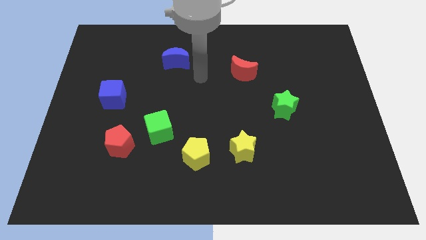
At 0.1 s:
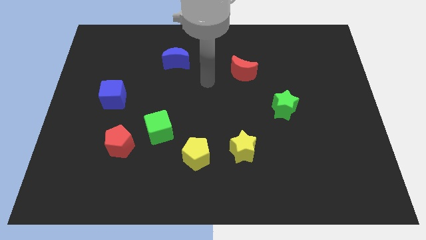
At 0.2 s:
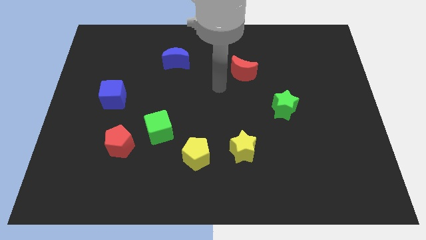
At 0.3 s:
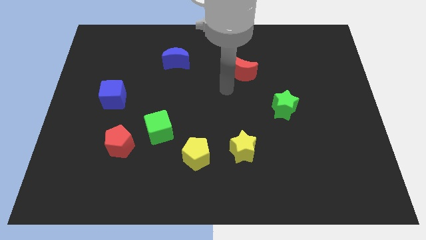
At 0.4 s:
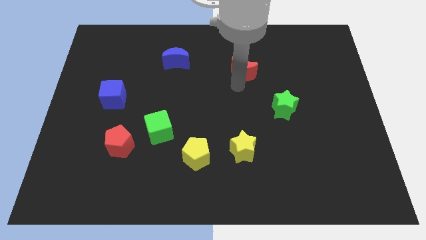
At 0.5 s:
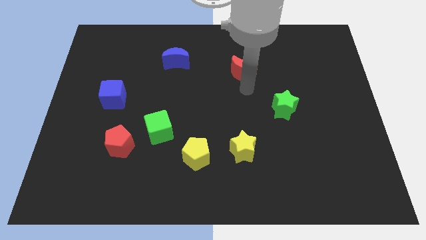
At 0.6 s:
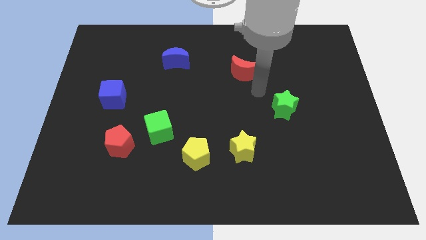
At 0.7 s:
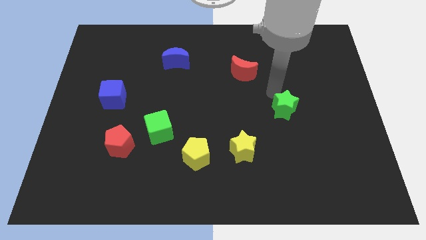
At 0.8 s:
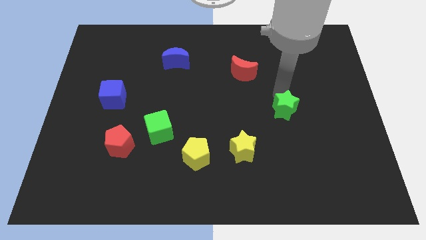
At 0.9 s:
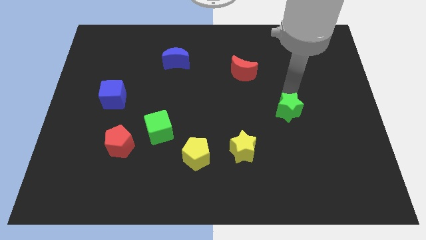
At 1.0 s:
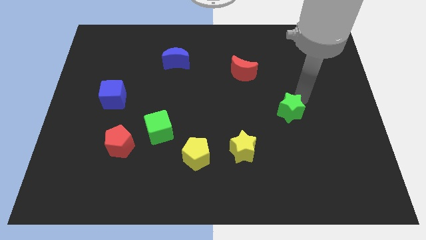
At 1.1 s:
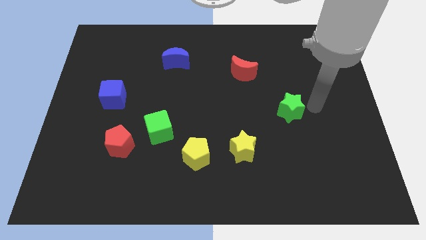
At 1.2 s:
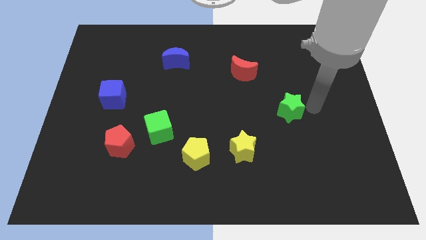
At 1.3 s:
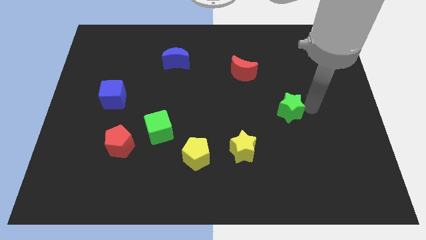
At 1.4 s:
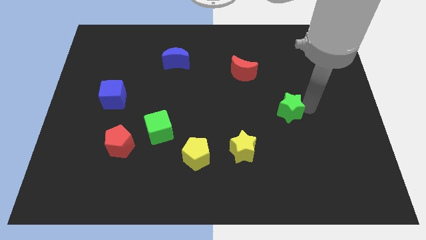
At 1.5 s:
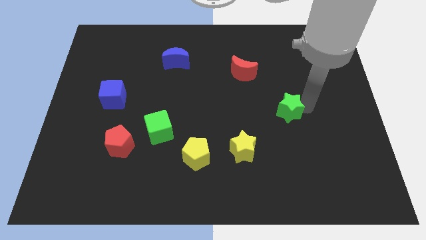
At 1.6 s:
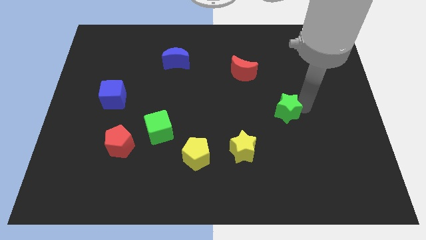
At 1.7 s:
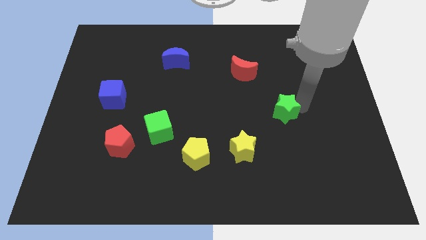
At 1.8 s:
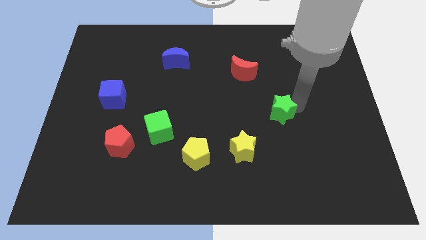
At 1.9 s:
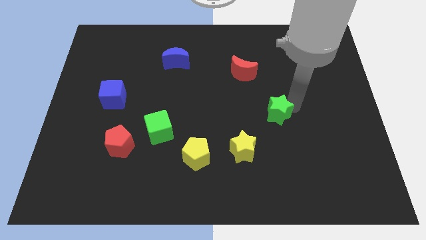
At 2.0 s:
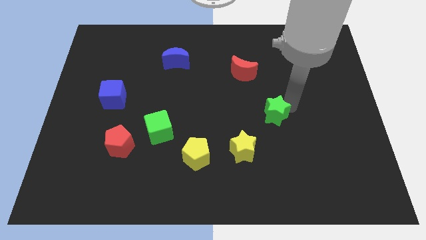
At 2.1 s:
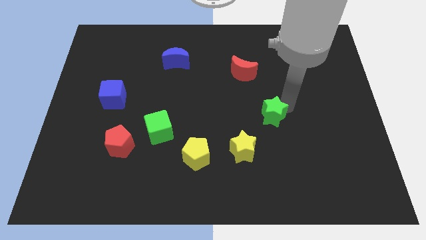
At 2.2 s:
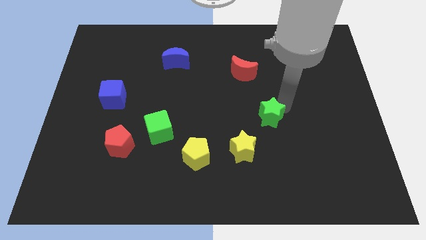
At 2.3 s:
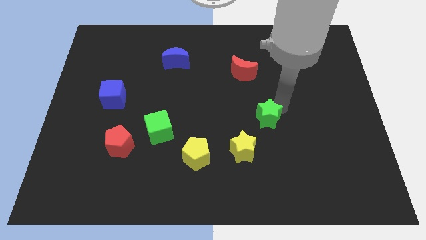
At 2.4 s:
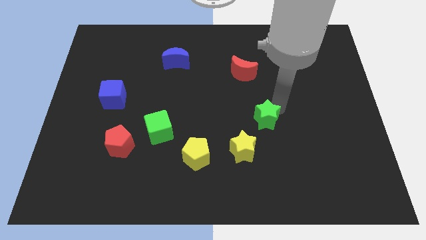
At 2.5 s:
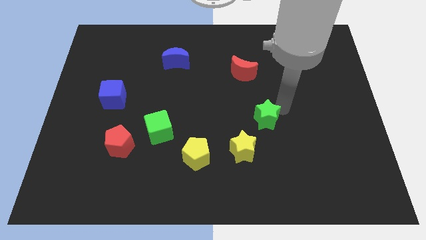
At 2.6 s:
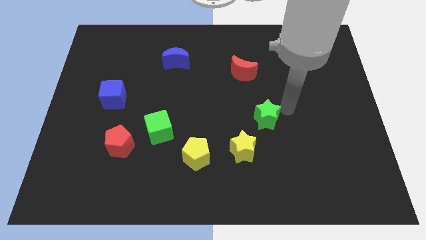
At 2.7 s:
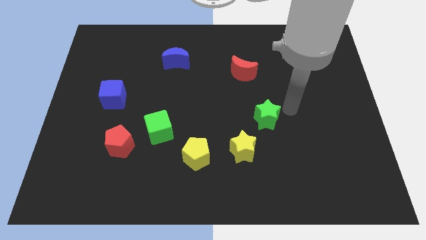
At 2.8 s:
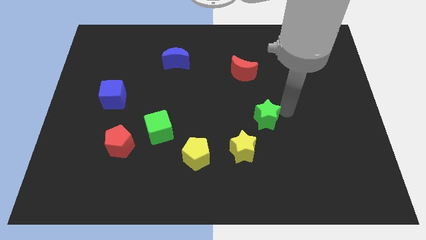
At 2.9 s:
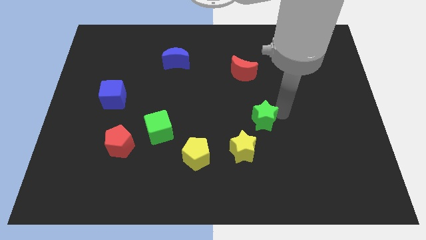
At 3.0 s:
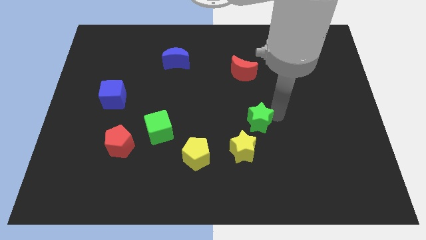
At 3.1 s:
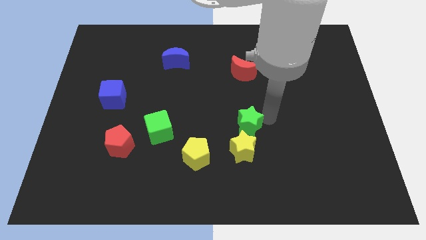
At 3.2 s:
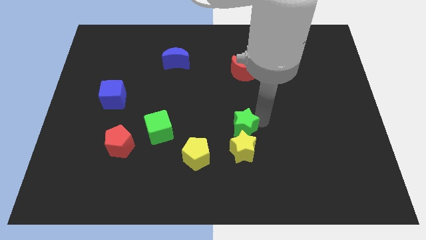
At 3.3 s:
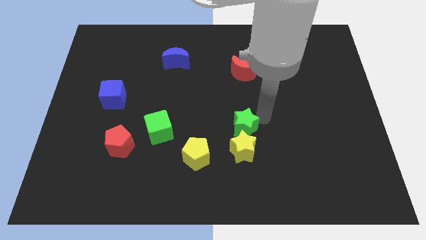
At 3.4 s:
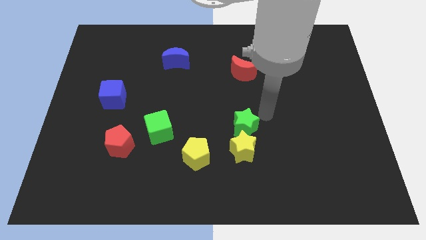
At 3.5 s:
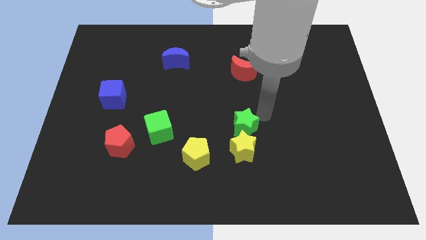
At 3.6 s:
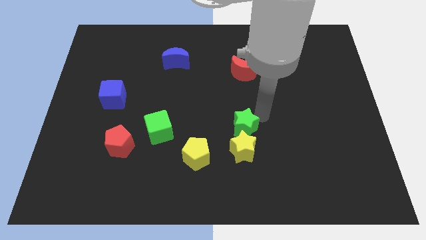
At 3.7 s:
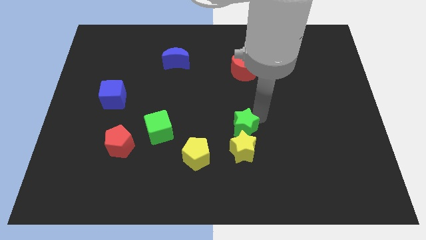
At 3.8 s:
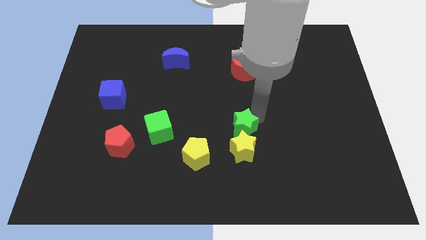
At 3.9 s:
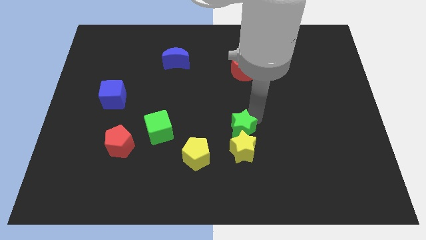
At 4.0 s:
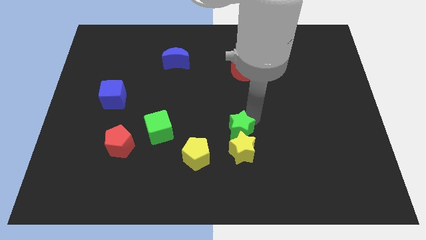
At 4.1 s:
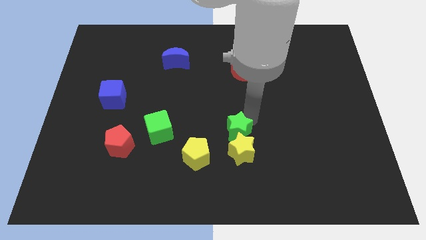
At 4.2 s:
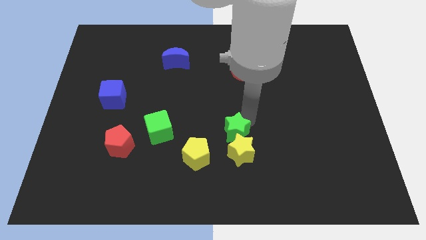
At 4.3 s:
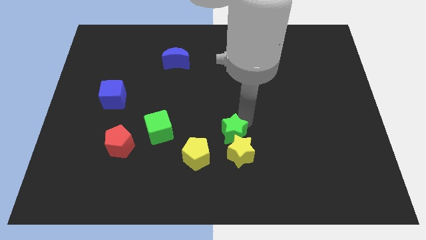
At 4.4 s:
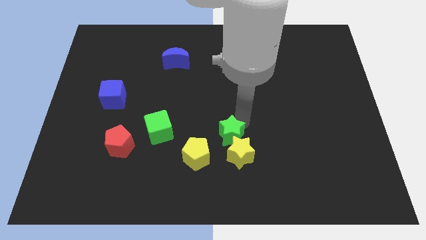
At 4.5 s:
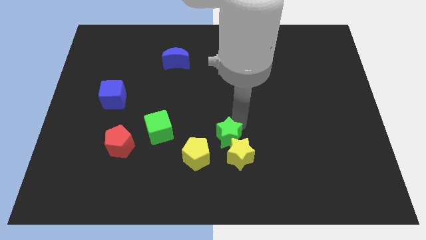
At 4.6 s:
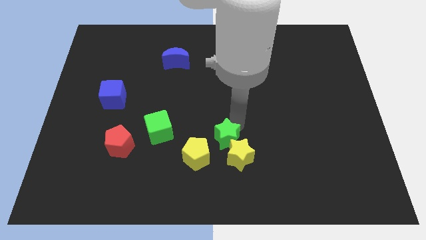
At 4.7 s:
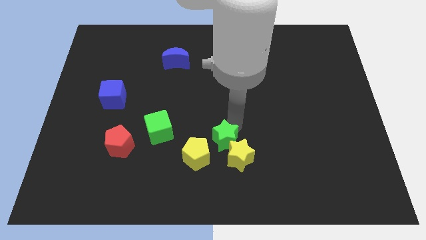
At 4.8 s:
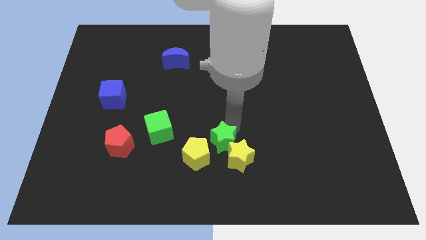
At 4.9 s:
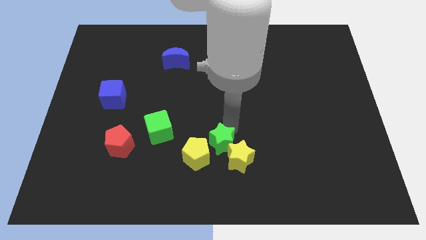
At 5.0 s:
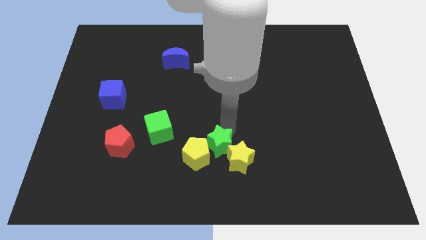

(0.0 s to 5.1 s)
push the green star close to the yellow pentagon

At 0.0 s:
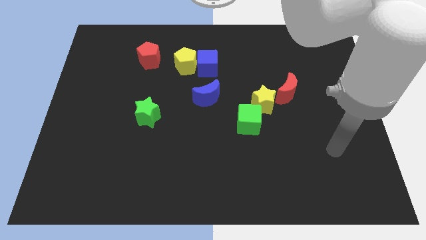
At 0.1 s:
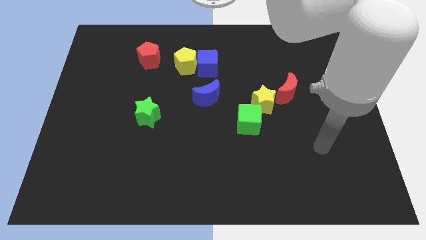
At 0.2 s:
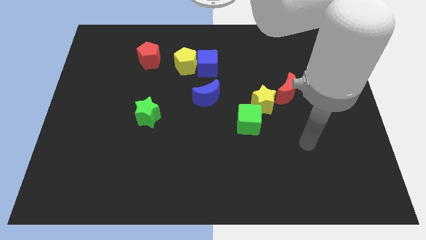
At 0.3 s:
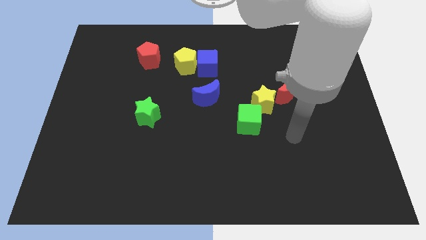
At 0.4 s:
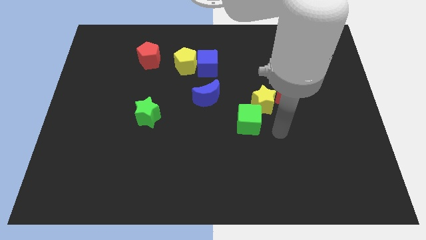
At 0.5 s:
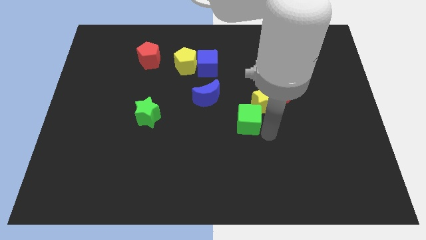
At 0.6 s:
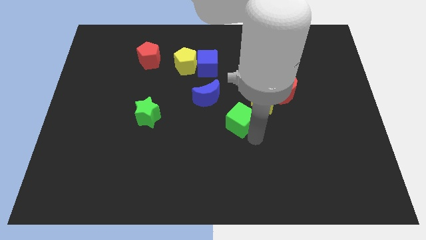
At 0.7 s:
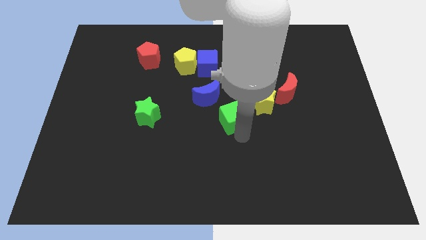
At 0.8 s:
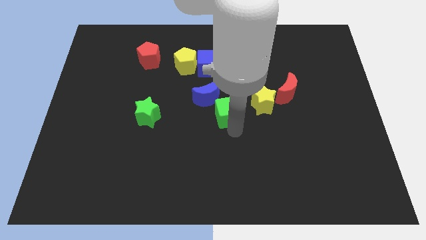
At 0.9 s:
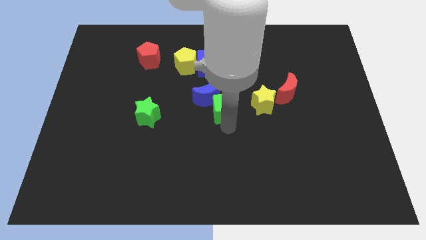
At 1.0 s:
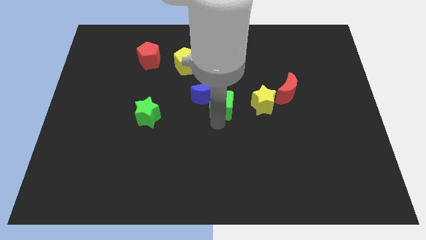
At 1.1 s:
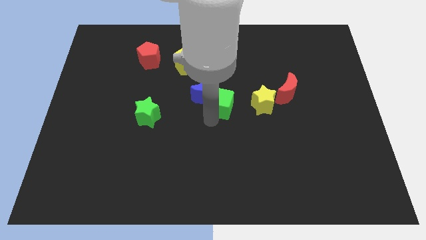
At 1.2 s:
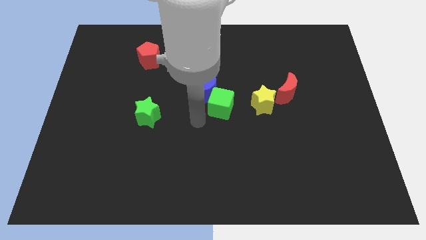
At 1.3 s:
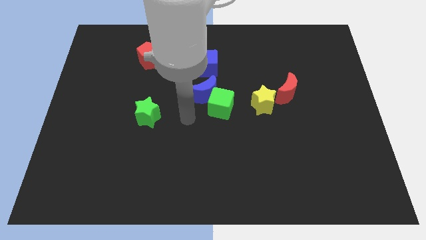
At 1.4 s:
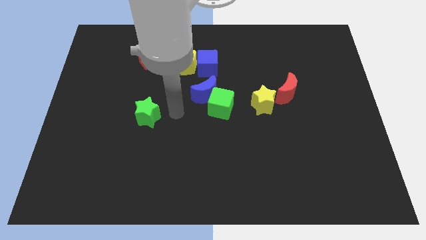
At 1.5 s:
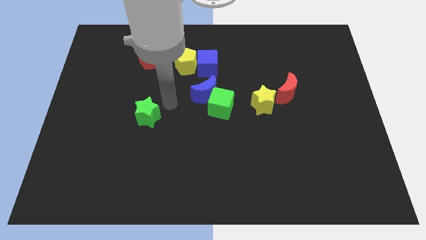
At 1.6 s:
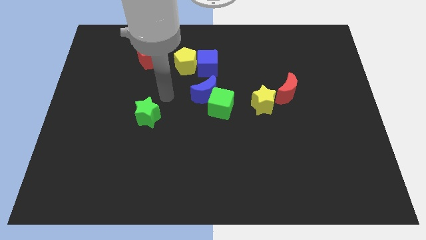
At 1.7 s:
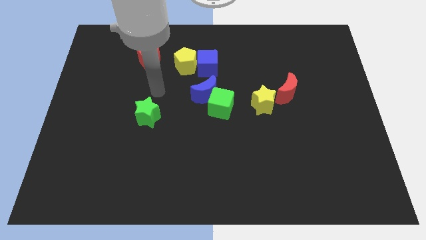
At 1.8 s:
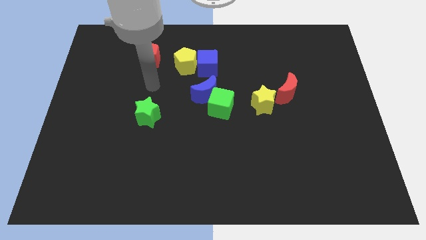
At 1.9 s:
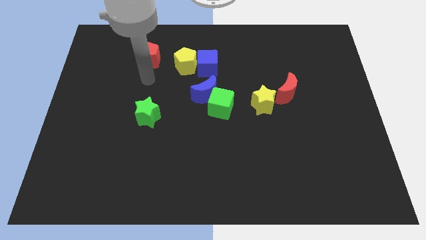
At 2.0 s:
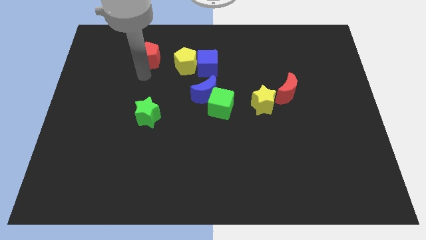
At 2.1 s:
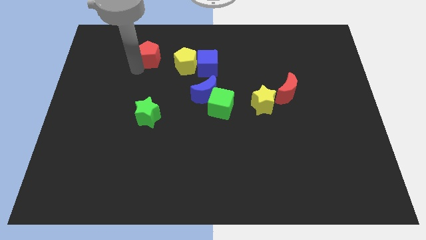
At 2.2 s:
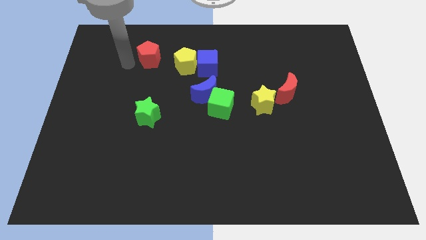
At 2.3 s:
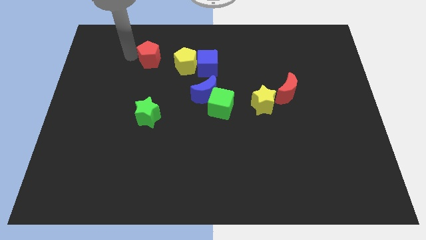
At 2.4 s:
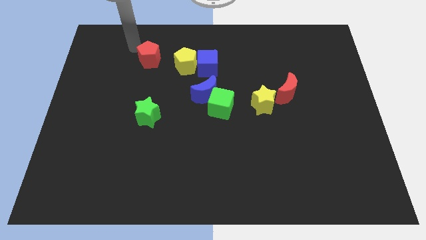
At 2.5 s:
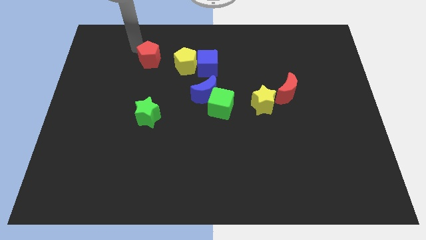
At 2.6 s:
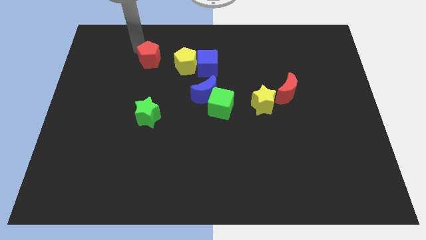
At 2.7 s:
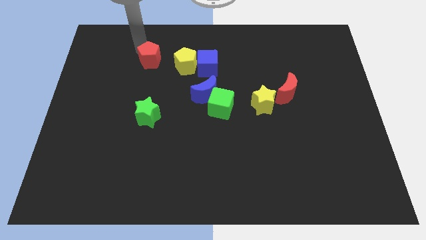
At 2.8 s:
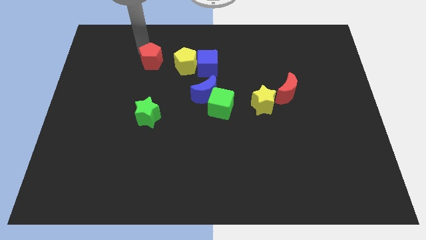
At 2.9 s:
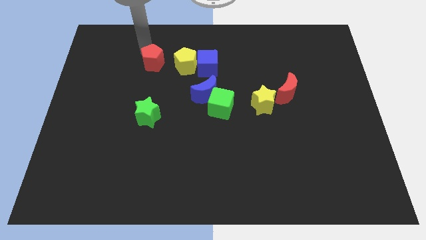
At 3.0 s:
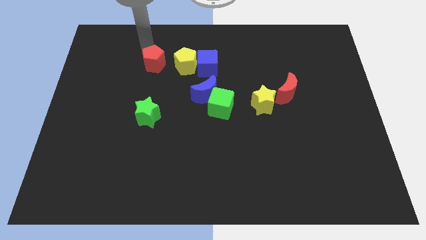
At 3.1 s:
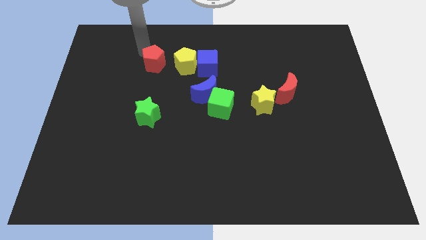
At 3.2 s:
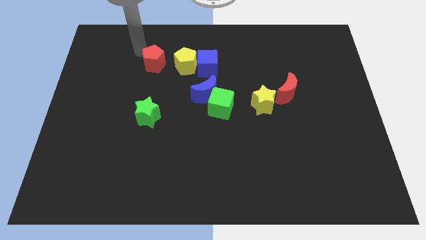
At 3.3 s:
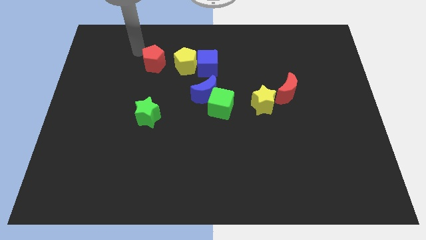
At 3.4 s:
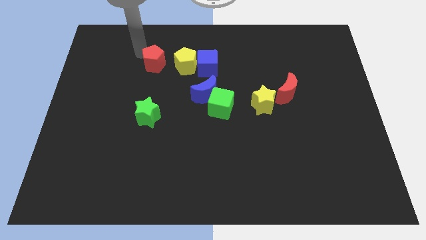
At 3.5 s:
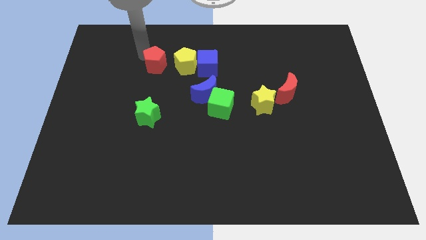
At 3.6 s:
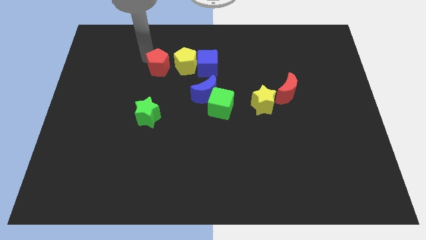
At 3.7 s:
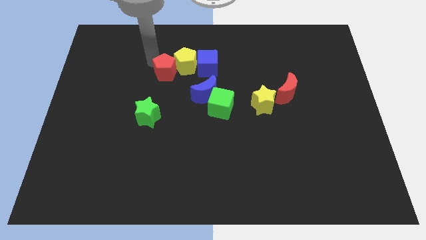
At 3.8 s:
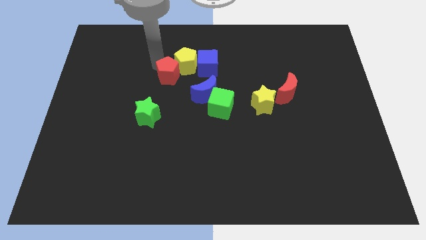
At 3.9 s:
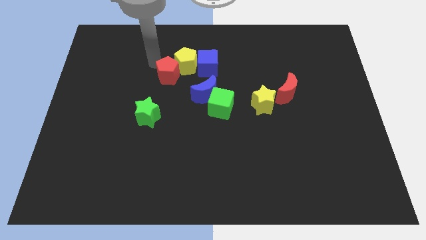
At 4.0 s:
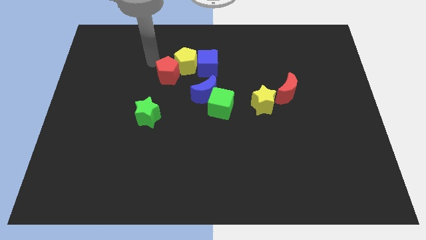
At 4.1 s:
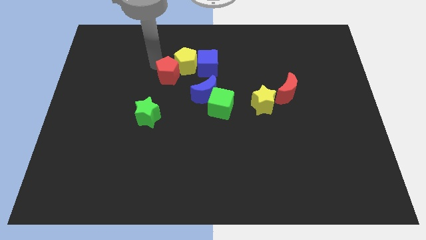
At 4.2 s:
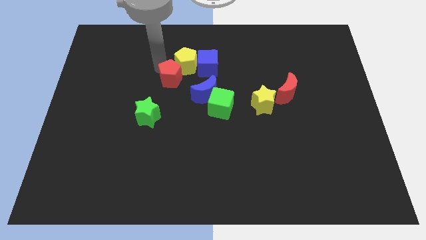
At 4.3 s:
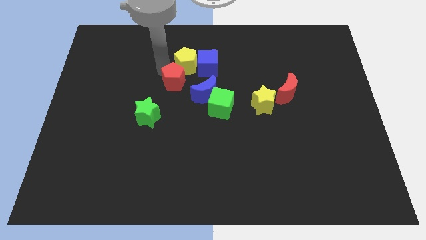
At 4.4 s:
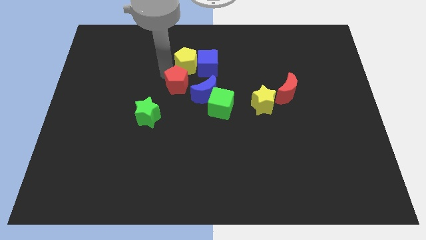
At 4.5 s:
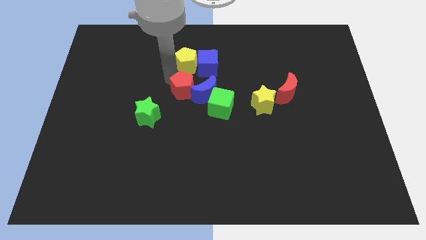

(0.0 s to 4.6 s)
put the red pentagon towards the blue moon
